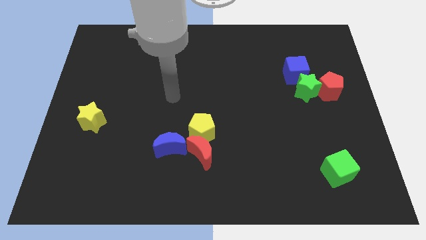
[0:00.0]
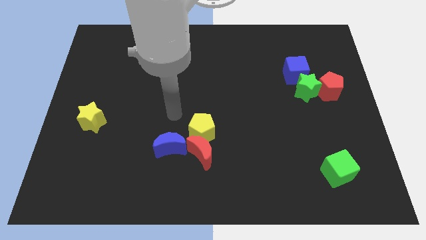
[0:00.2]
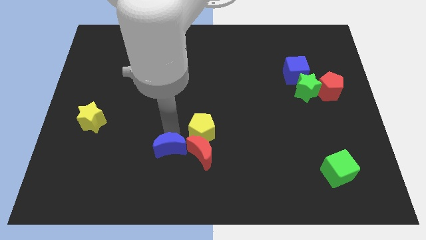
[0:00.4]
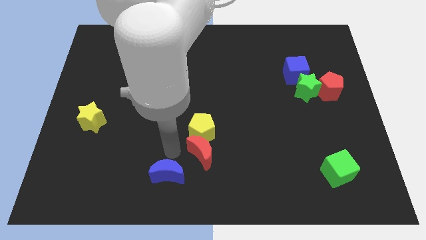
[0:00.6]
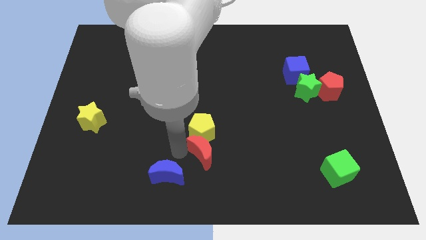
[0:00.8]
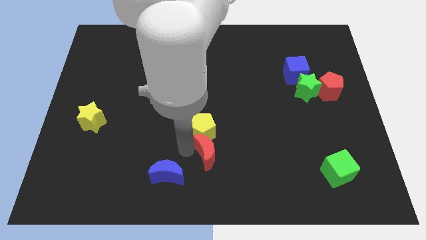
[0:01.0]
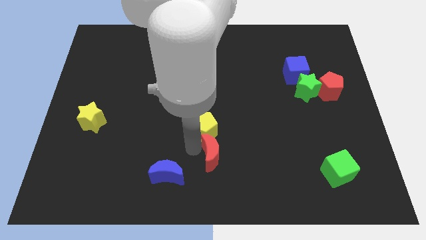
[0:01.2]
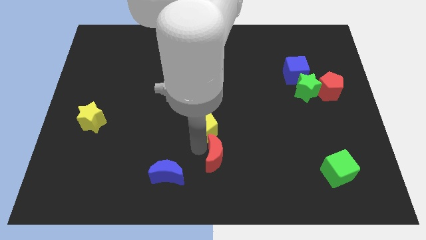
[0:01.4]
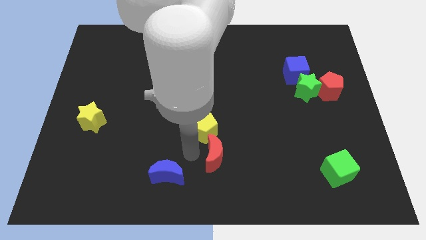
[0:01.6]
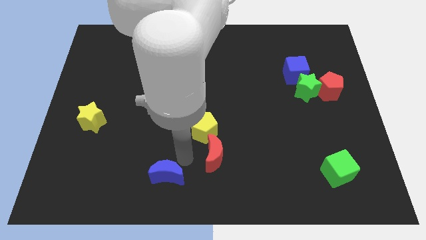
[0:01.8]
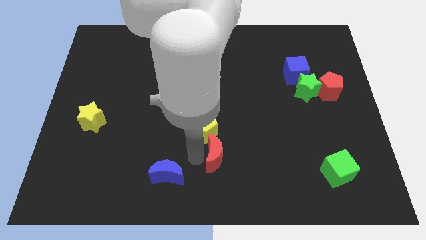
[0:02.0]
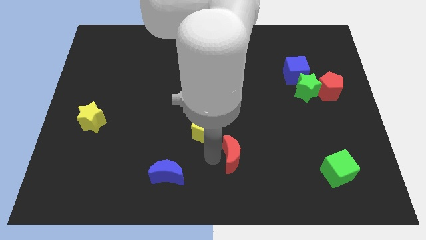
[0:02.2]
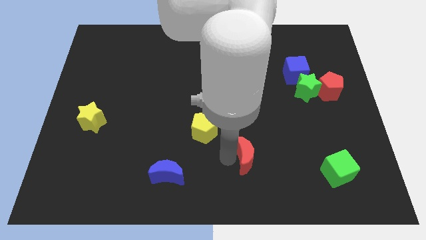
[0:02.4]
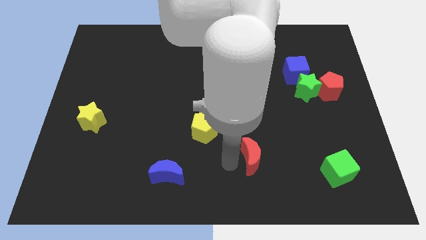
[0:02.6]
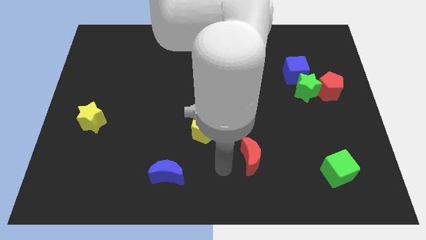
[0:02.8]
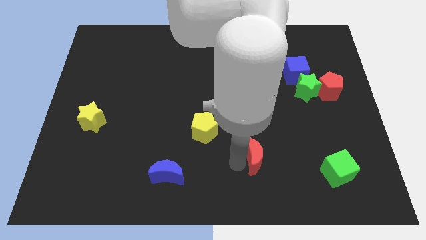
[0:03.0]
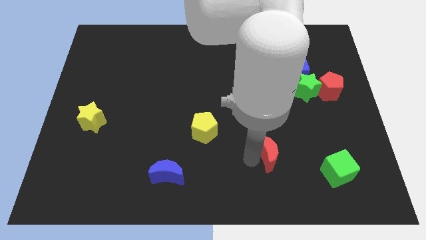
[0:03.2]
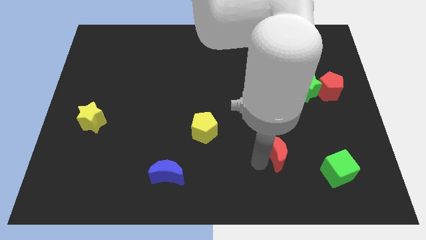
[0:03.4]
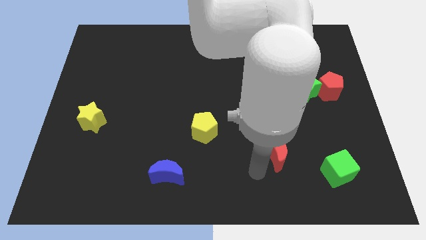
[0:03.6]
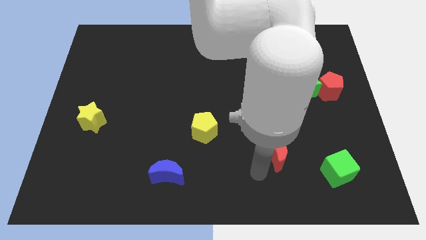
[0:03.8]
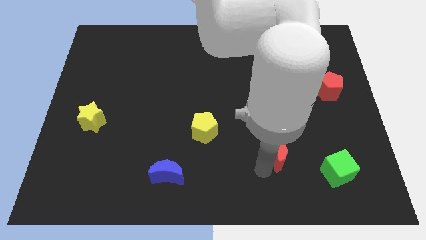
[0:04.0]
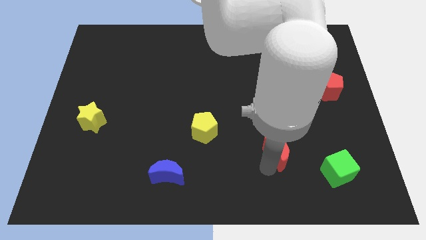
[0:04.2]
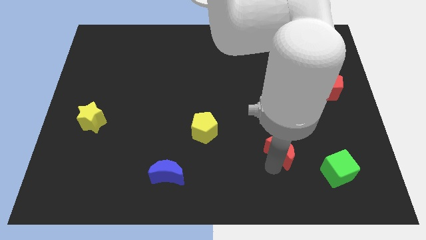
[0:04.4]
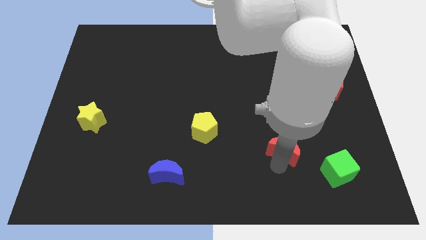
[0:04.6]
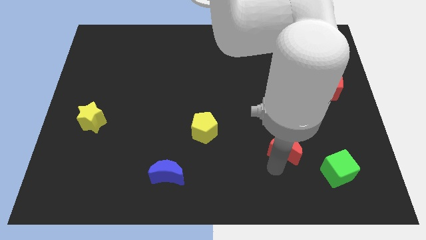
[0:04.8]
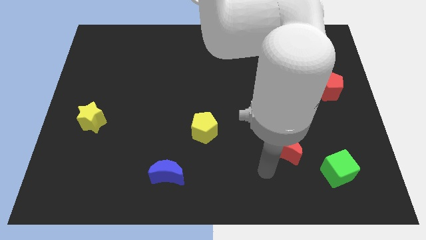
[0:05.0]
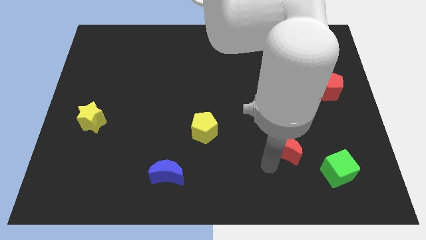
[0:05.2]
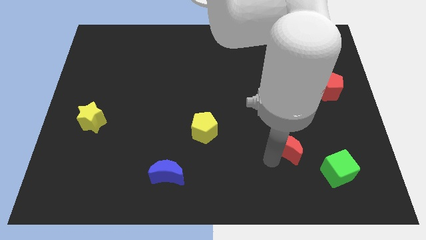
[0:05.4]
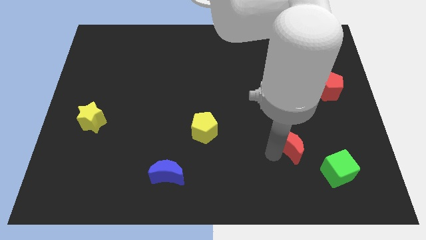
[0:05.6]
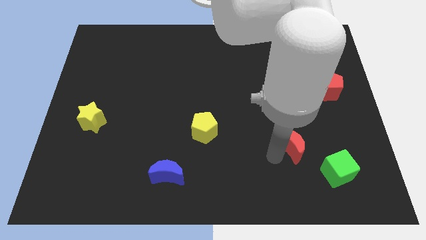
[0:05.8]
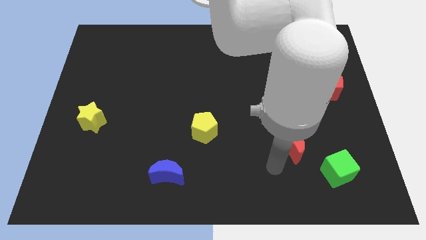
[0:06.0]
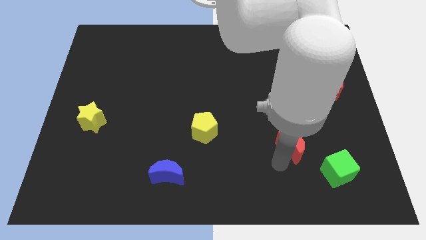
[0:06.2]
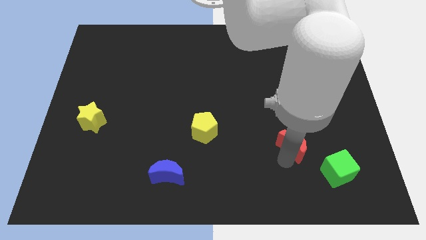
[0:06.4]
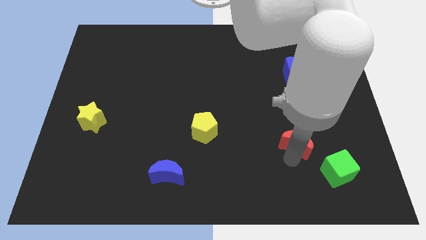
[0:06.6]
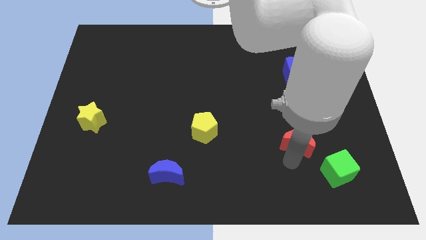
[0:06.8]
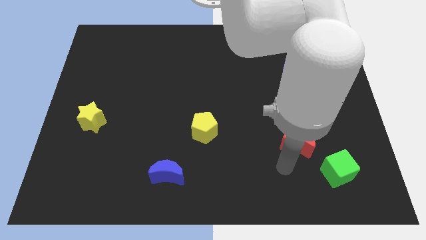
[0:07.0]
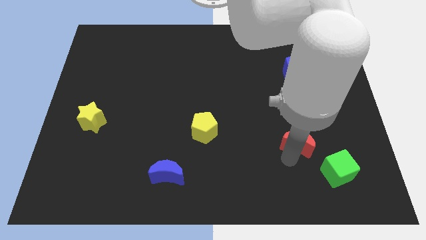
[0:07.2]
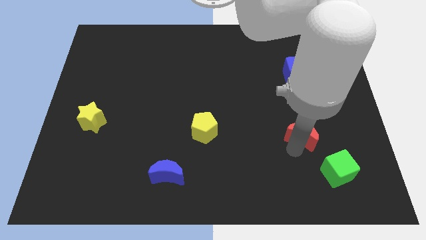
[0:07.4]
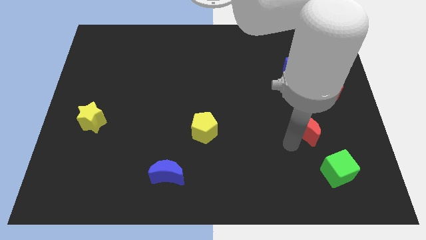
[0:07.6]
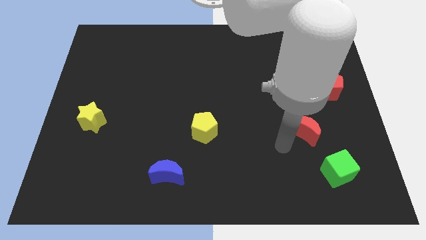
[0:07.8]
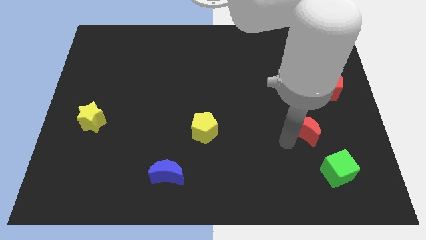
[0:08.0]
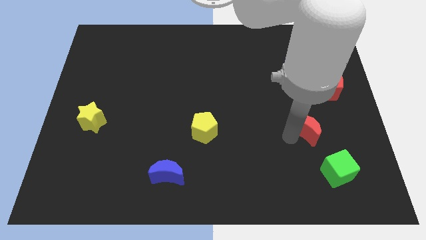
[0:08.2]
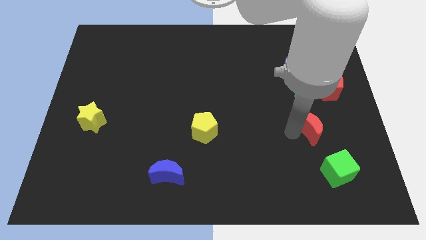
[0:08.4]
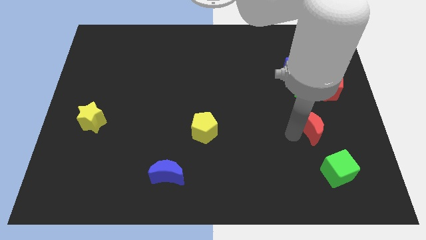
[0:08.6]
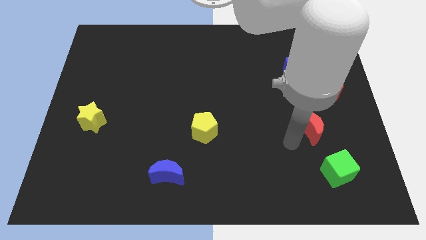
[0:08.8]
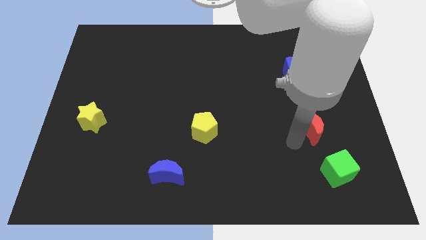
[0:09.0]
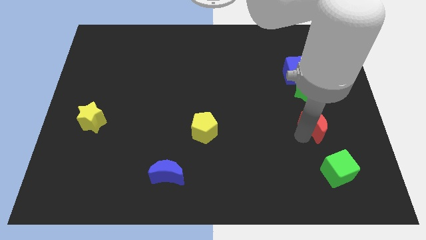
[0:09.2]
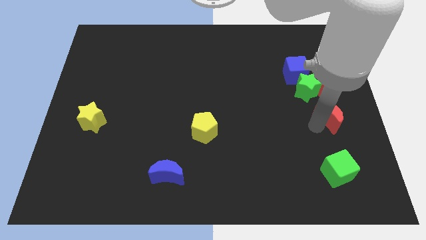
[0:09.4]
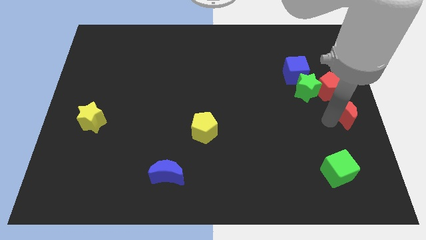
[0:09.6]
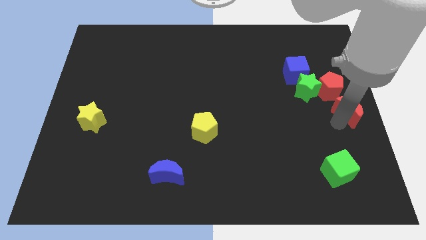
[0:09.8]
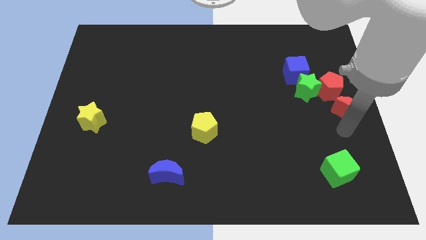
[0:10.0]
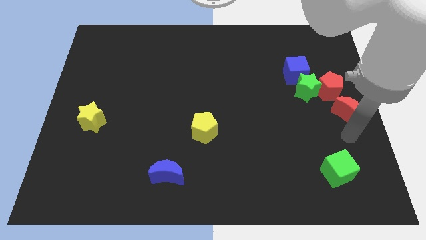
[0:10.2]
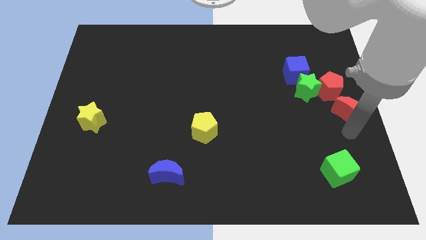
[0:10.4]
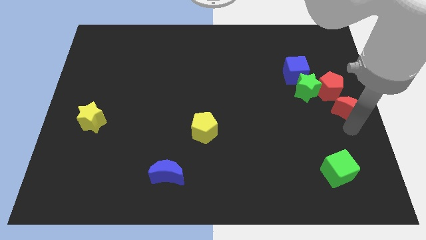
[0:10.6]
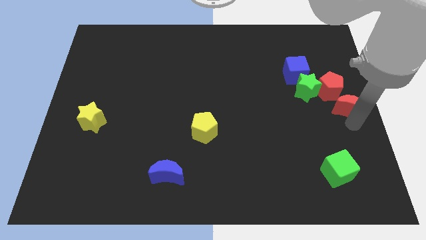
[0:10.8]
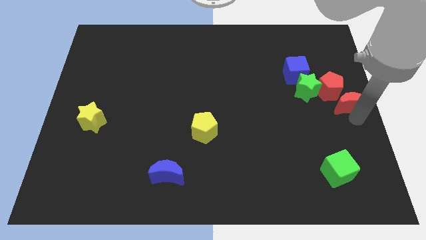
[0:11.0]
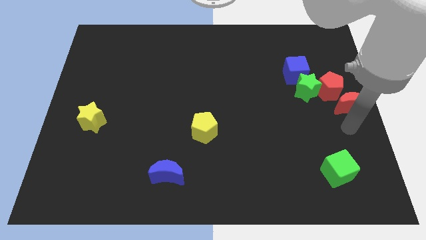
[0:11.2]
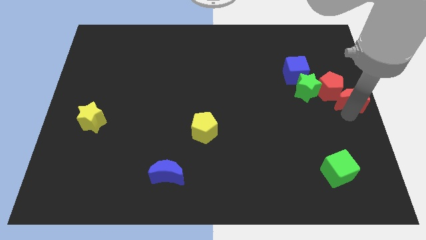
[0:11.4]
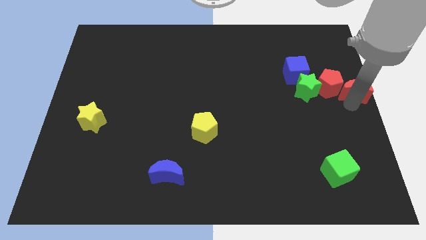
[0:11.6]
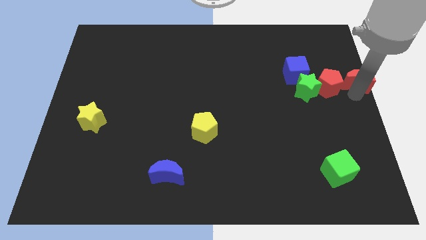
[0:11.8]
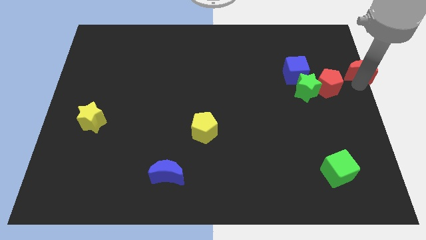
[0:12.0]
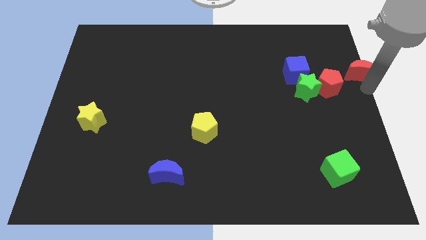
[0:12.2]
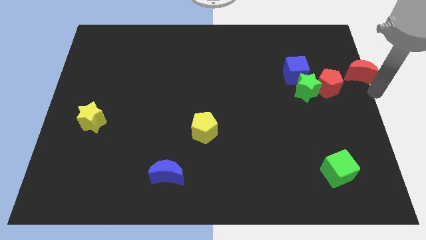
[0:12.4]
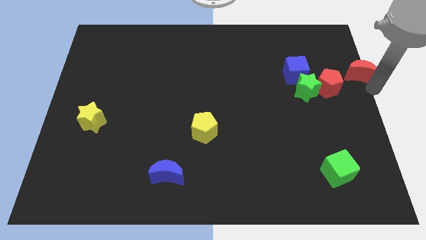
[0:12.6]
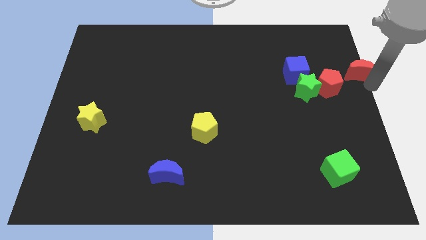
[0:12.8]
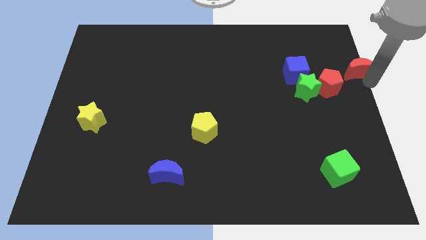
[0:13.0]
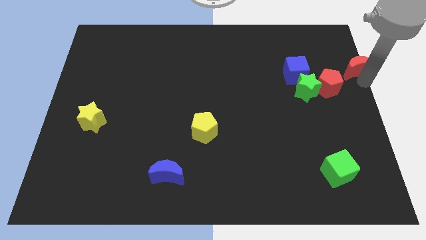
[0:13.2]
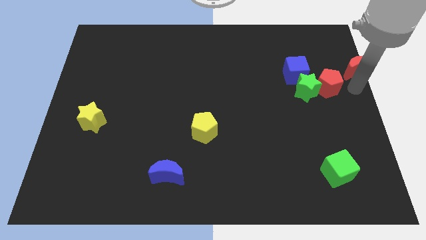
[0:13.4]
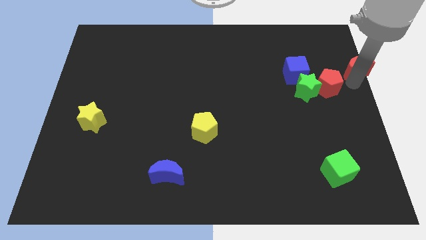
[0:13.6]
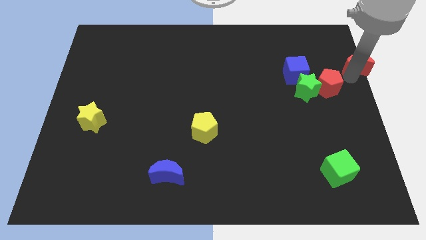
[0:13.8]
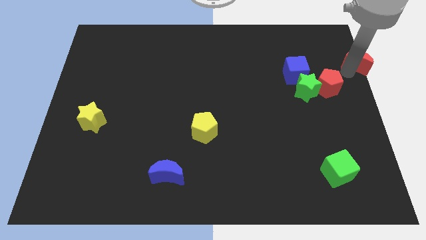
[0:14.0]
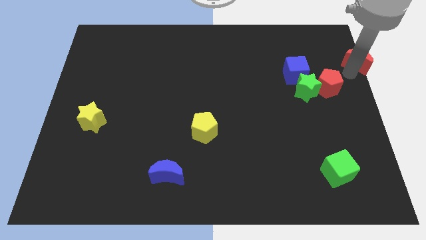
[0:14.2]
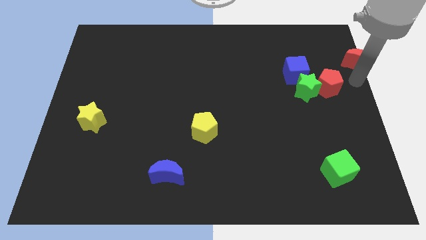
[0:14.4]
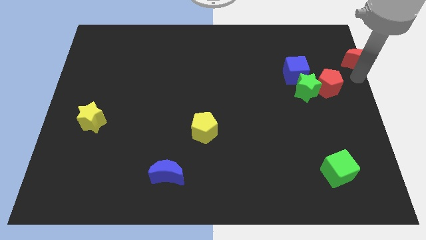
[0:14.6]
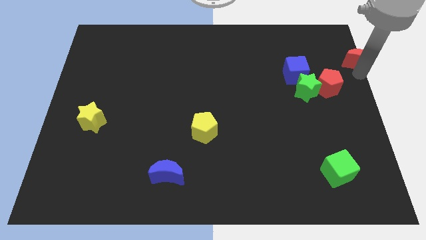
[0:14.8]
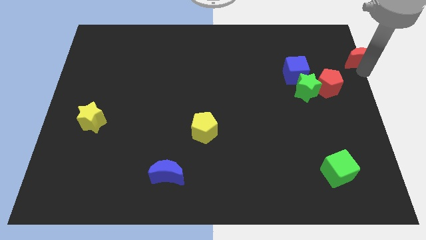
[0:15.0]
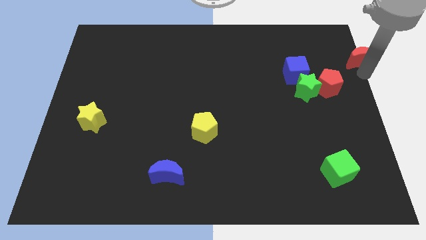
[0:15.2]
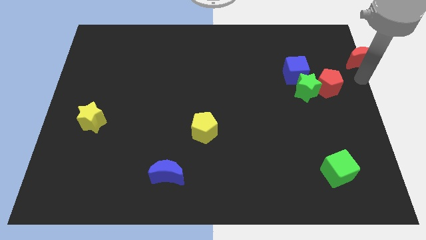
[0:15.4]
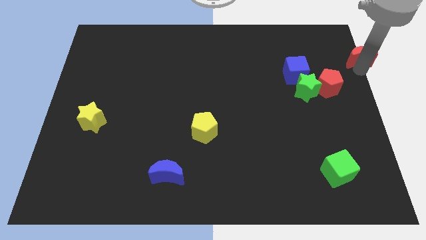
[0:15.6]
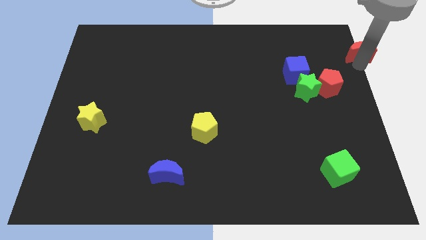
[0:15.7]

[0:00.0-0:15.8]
slide the red moon to the top right
